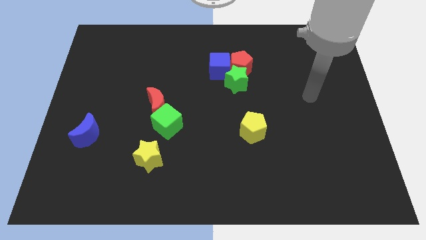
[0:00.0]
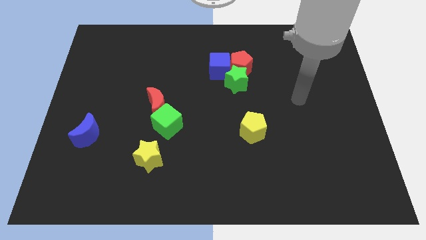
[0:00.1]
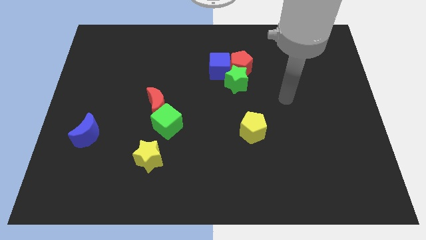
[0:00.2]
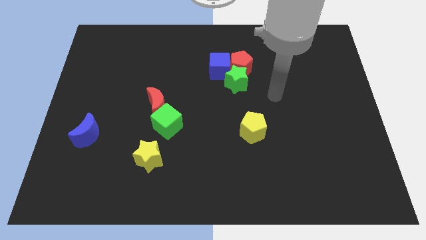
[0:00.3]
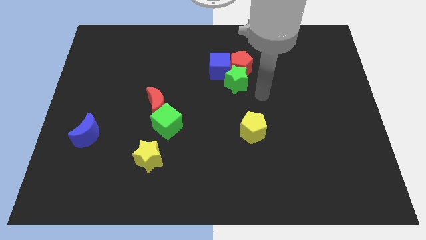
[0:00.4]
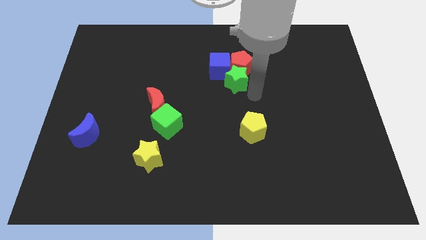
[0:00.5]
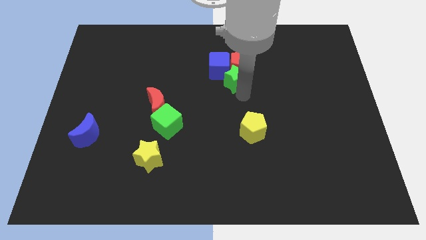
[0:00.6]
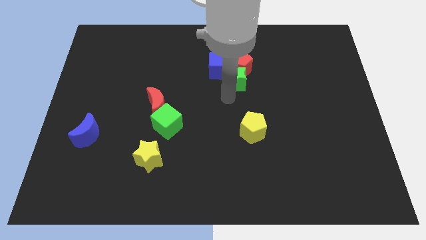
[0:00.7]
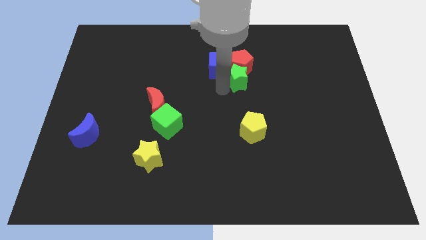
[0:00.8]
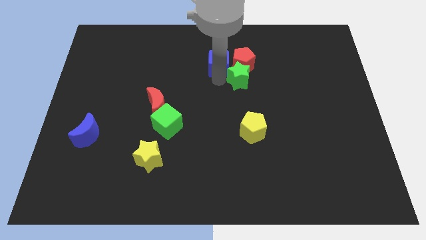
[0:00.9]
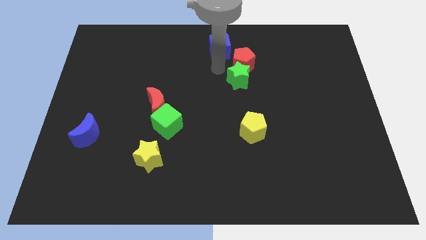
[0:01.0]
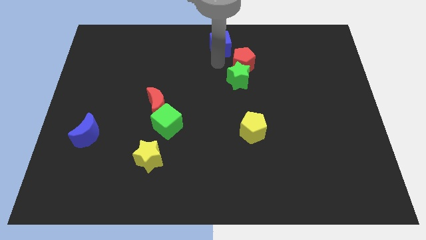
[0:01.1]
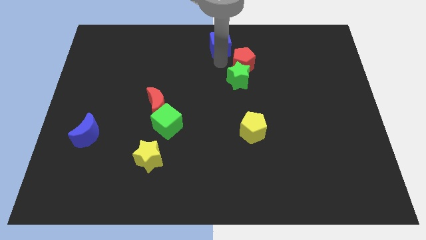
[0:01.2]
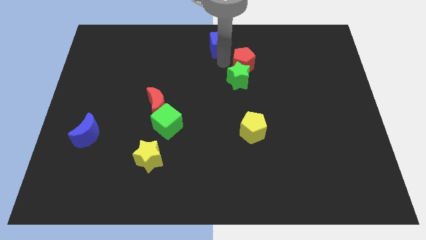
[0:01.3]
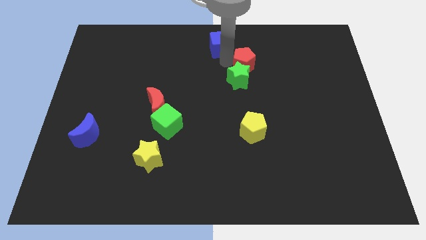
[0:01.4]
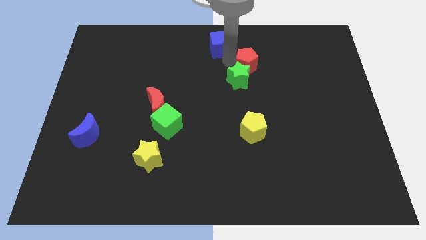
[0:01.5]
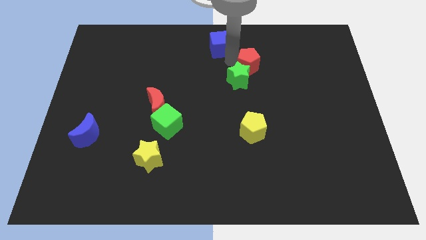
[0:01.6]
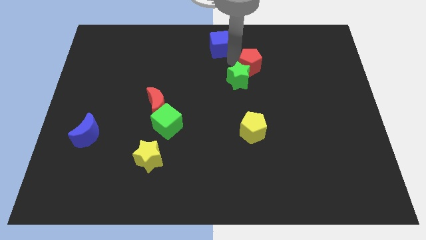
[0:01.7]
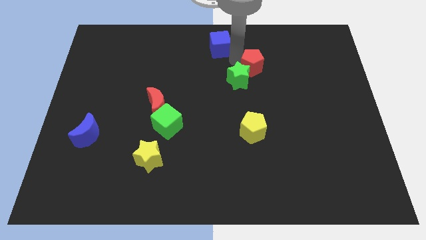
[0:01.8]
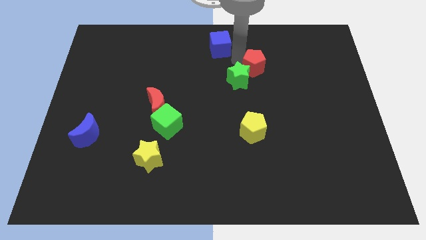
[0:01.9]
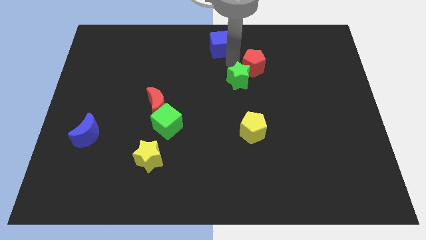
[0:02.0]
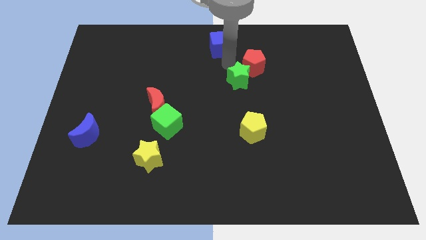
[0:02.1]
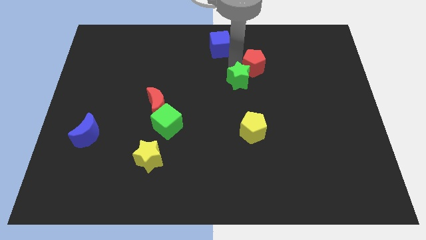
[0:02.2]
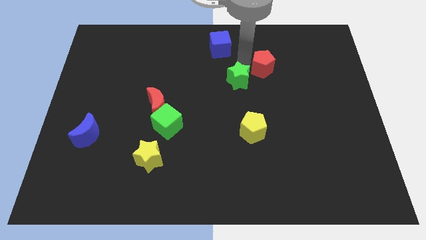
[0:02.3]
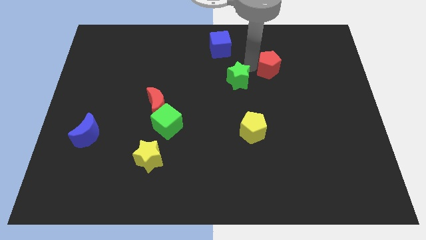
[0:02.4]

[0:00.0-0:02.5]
slightly push the red pentagon to the right

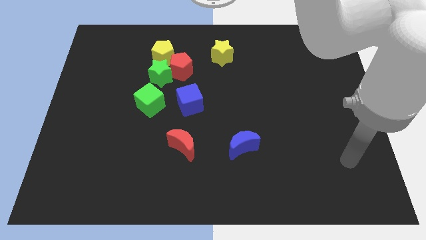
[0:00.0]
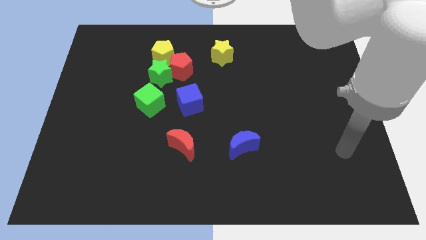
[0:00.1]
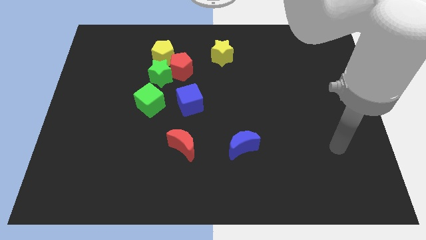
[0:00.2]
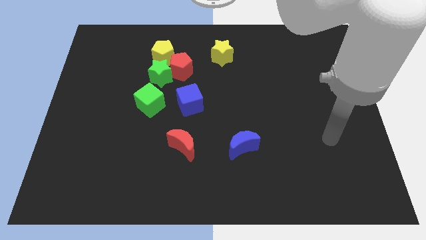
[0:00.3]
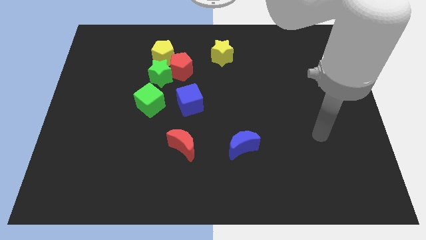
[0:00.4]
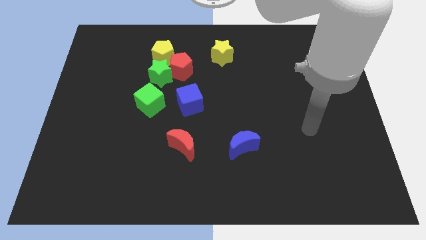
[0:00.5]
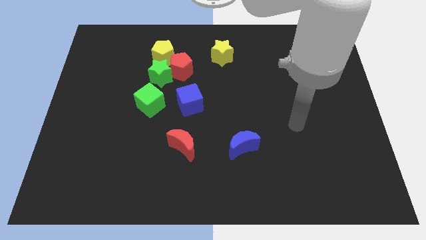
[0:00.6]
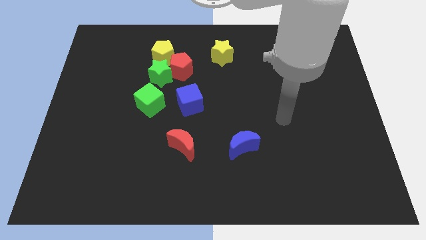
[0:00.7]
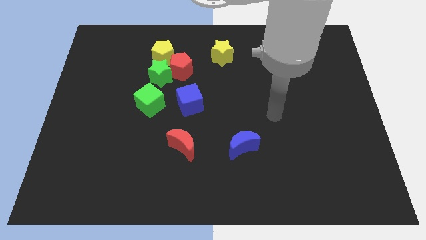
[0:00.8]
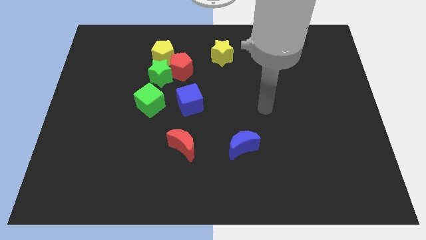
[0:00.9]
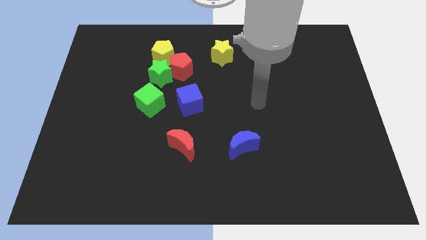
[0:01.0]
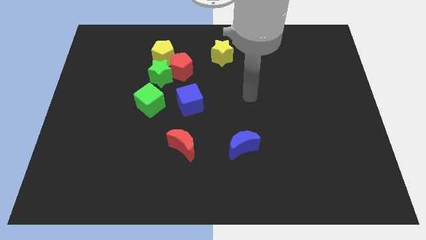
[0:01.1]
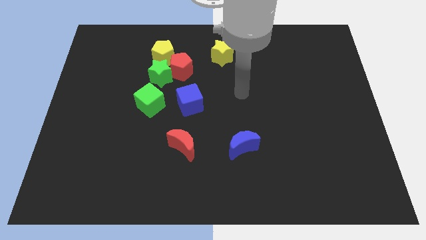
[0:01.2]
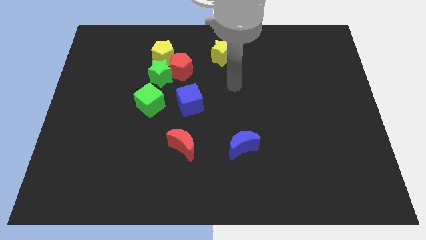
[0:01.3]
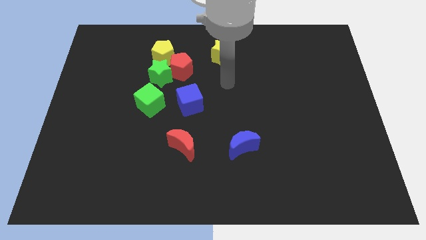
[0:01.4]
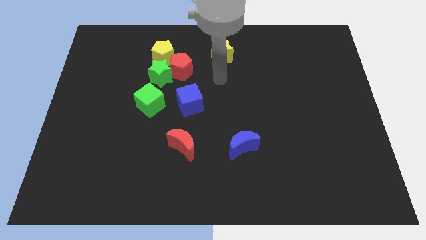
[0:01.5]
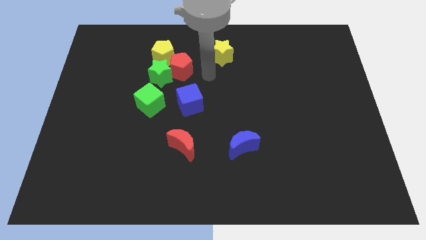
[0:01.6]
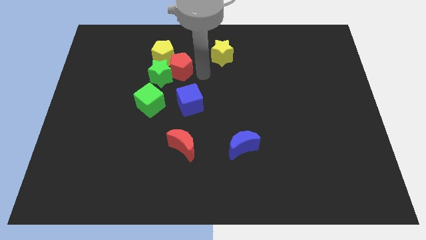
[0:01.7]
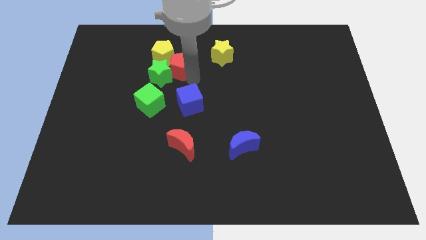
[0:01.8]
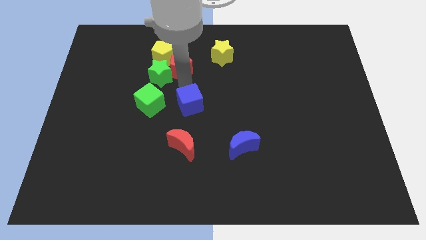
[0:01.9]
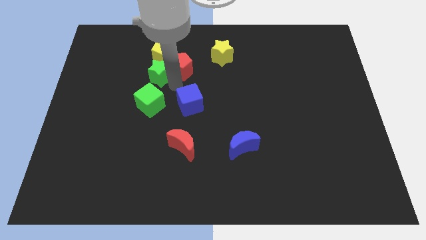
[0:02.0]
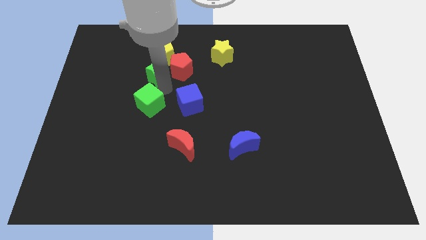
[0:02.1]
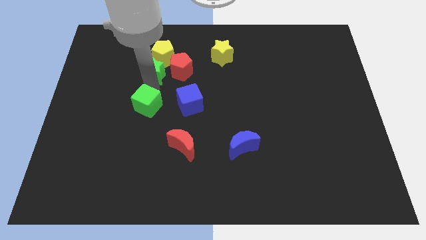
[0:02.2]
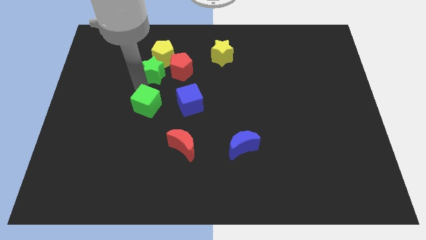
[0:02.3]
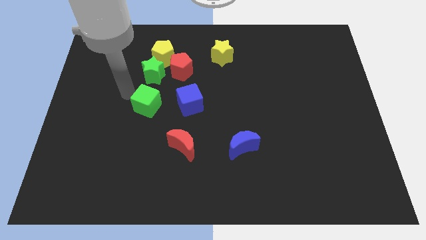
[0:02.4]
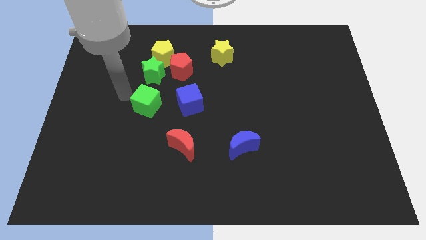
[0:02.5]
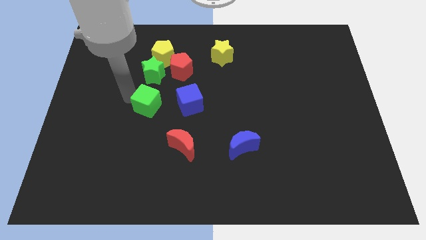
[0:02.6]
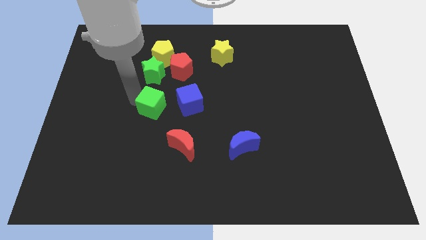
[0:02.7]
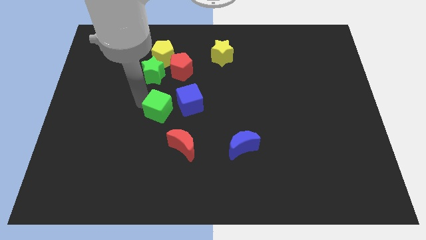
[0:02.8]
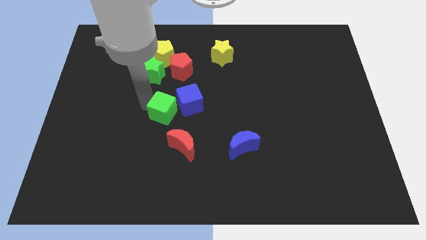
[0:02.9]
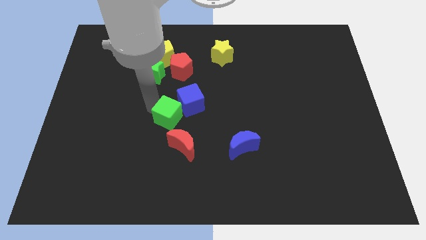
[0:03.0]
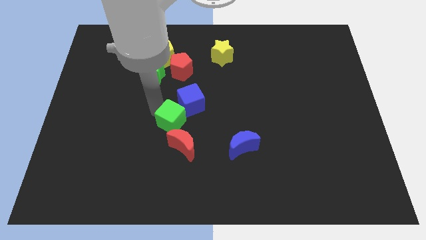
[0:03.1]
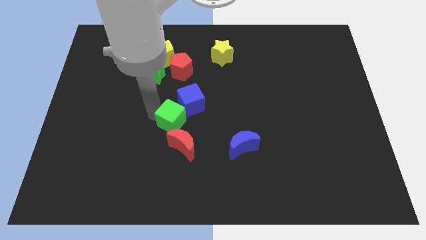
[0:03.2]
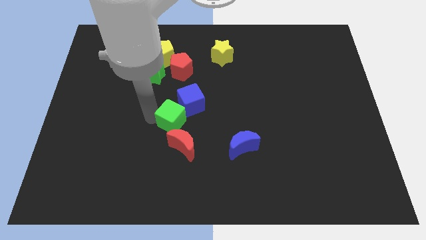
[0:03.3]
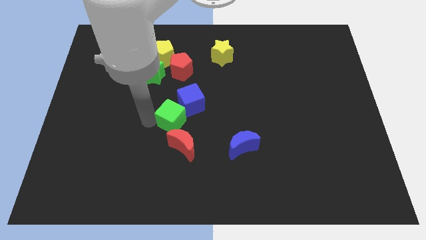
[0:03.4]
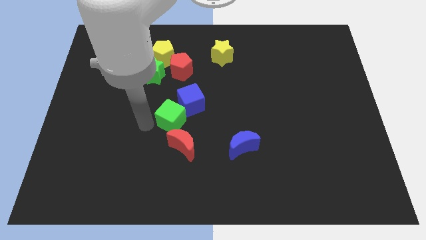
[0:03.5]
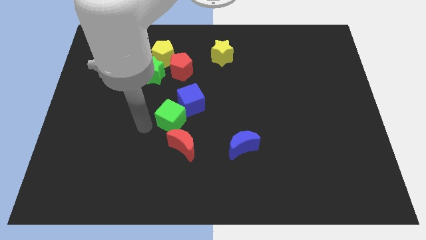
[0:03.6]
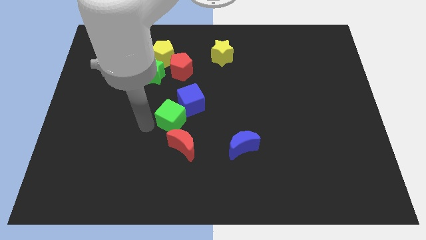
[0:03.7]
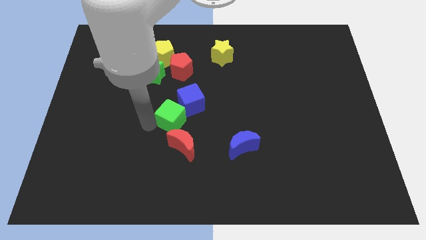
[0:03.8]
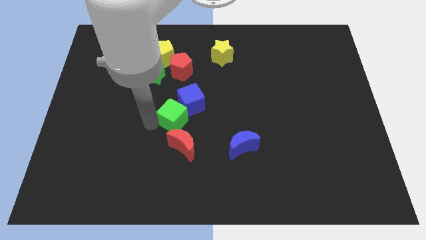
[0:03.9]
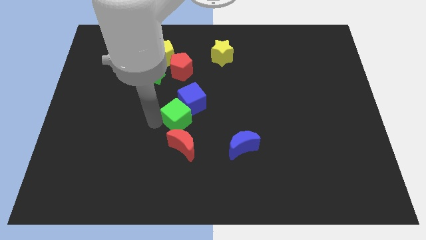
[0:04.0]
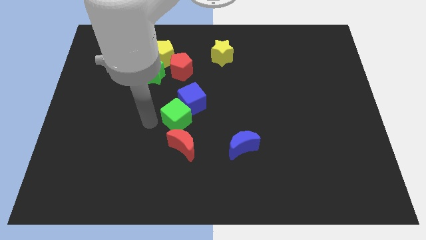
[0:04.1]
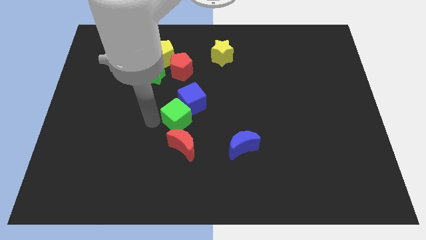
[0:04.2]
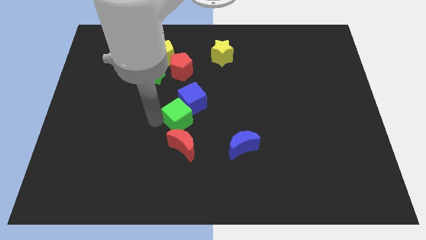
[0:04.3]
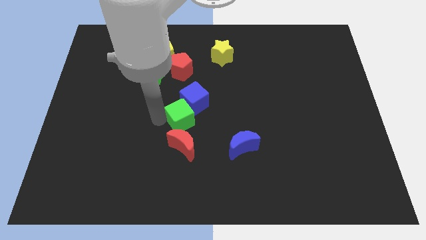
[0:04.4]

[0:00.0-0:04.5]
slightly move the green cube right

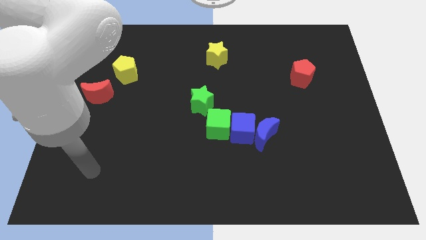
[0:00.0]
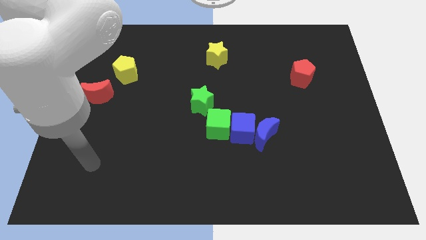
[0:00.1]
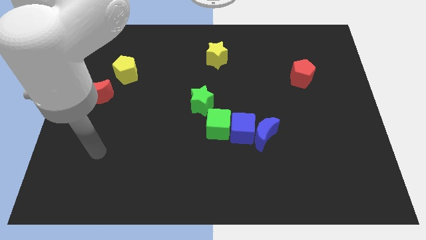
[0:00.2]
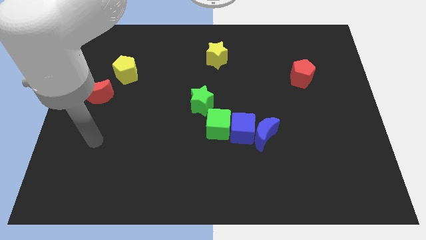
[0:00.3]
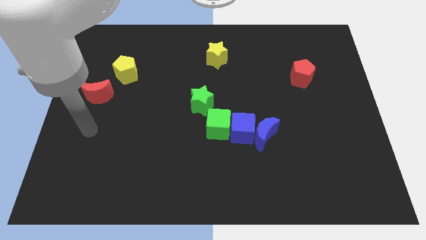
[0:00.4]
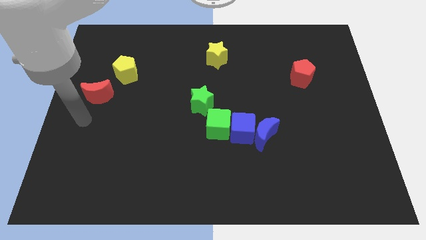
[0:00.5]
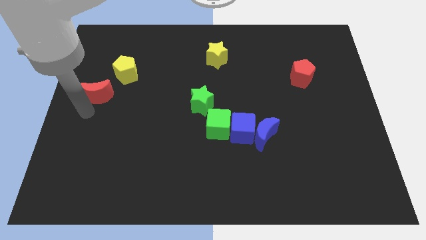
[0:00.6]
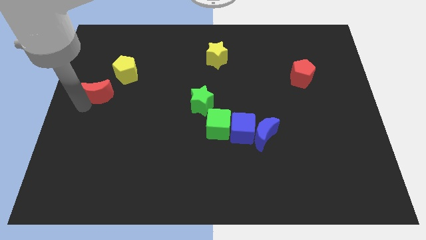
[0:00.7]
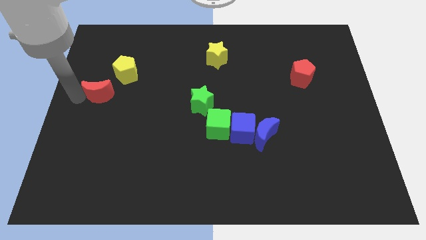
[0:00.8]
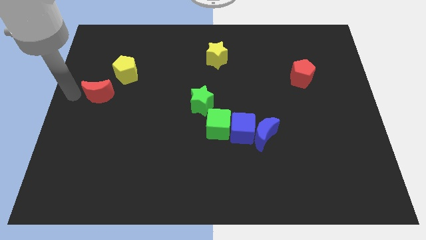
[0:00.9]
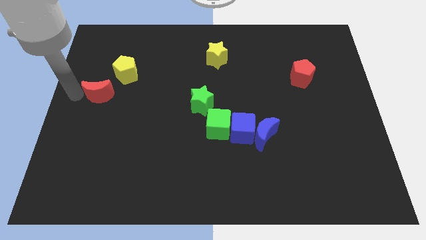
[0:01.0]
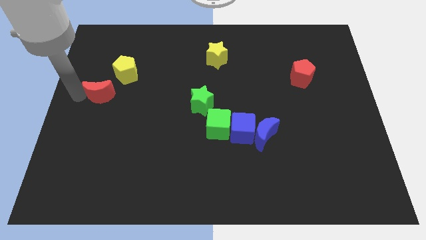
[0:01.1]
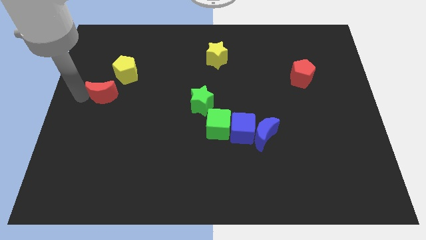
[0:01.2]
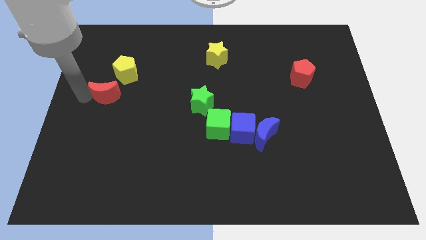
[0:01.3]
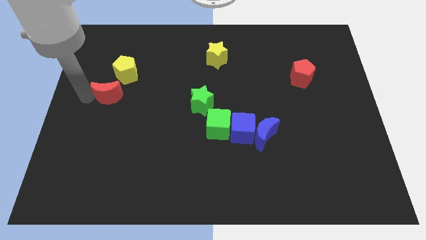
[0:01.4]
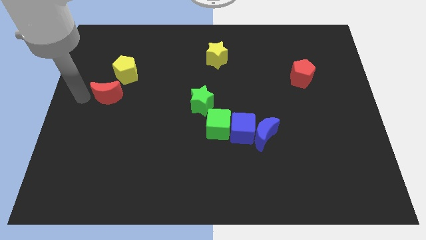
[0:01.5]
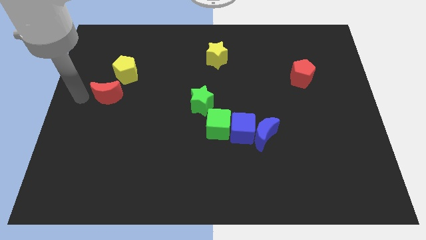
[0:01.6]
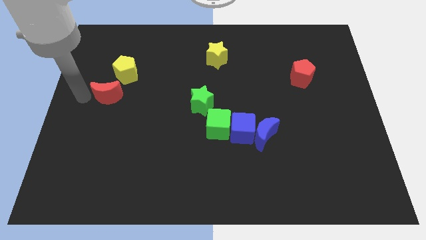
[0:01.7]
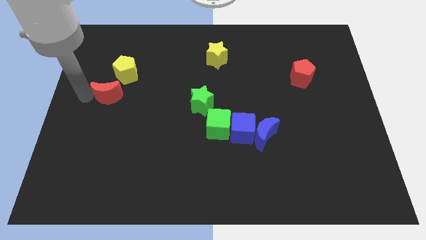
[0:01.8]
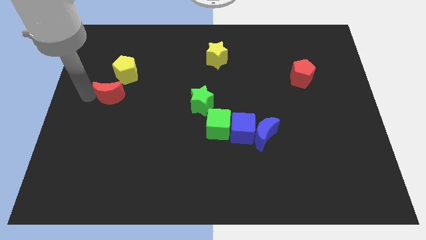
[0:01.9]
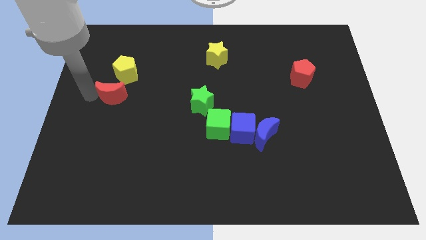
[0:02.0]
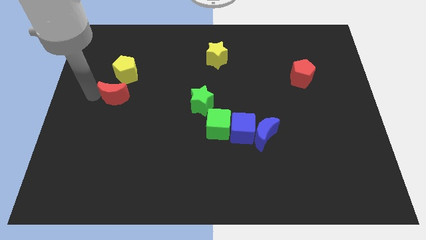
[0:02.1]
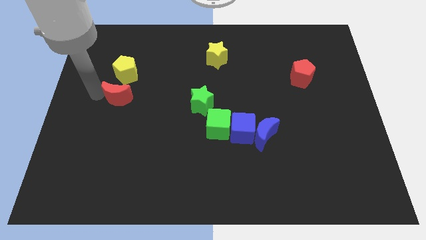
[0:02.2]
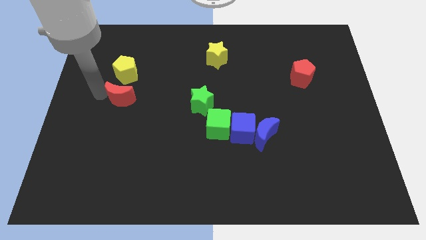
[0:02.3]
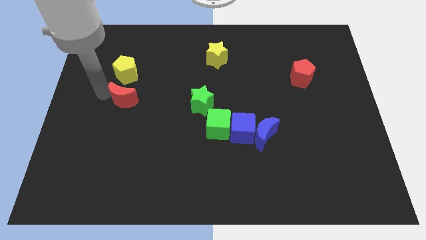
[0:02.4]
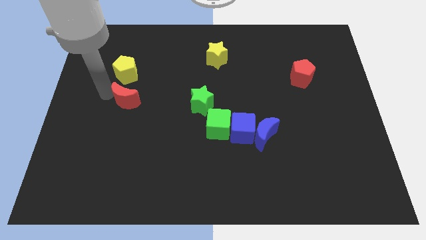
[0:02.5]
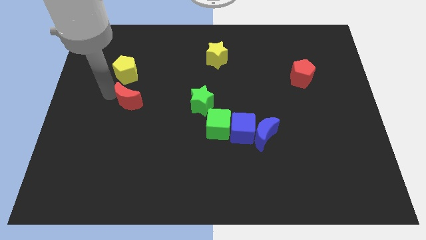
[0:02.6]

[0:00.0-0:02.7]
slightly slide the red moon right
